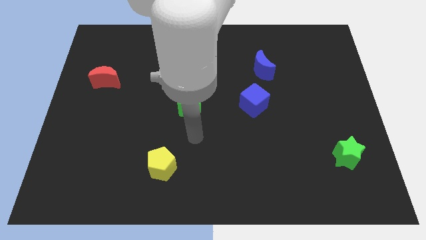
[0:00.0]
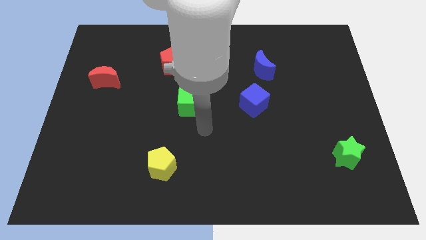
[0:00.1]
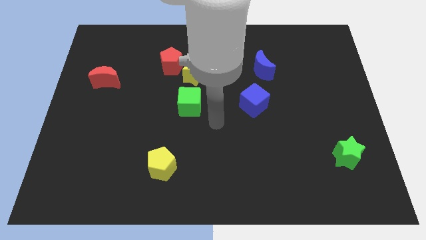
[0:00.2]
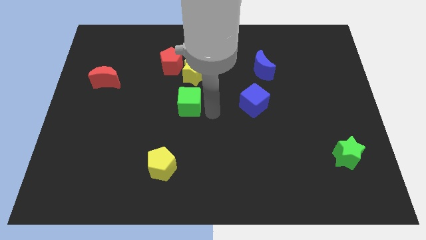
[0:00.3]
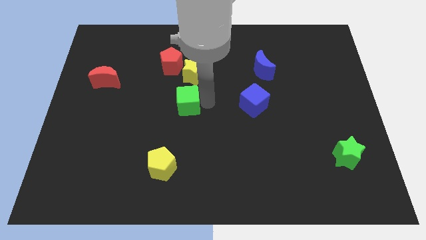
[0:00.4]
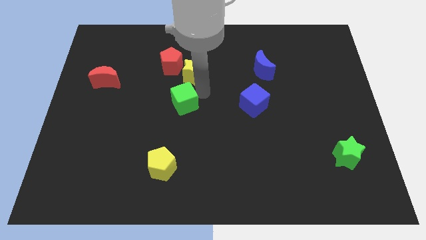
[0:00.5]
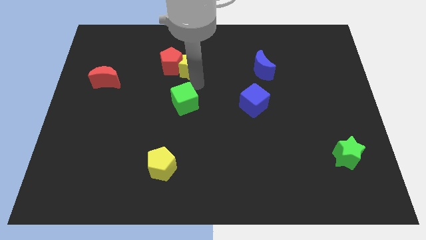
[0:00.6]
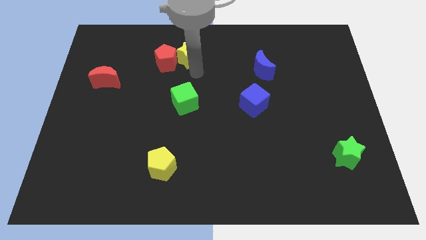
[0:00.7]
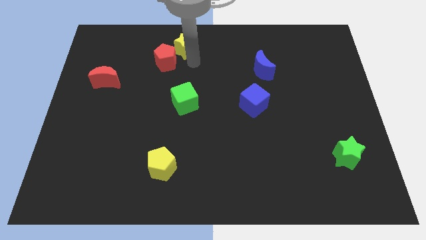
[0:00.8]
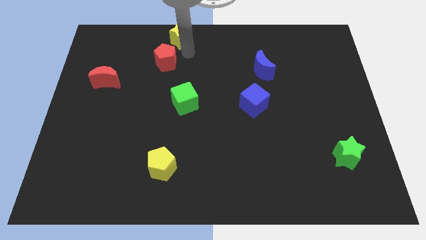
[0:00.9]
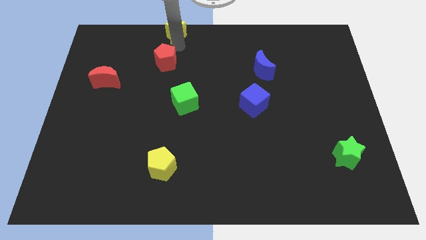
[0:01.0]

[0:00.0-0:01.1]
move the red pentagon away from the yellow star

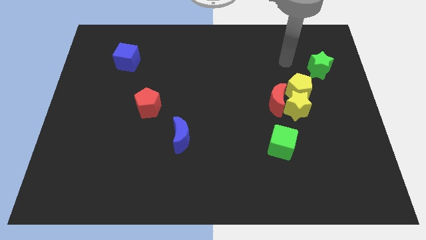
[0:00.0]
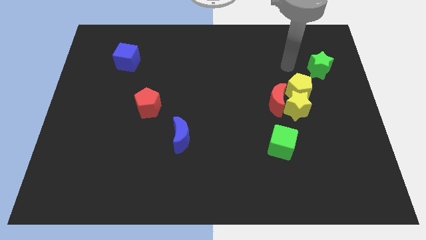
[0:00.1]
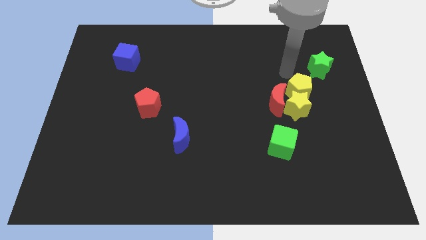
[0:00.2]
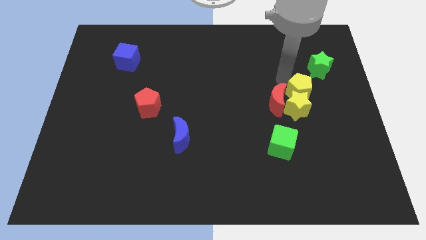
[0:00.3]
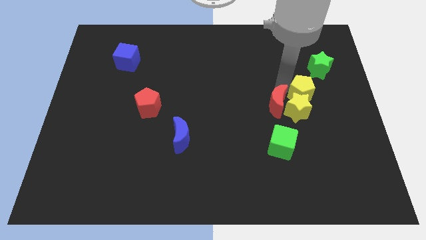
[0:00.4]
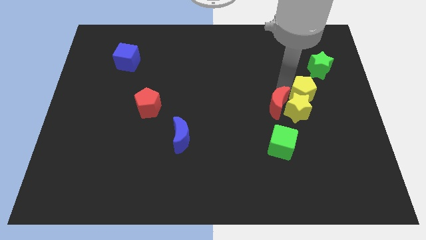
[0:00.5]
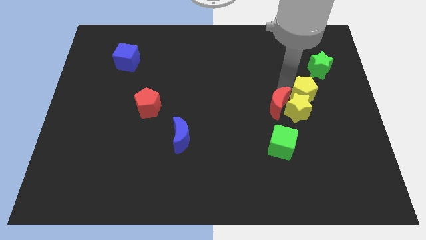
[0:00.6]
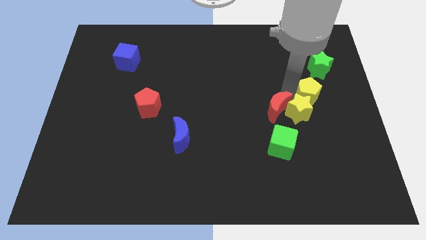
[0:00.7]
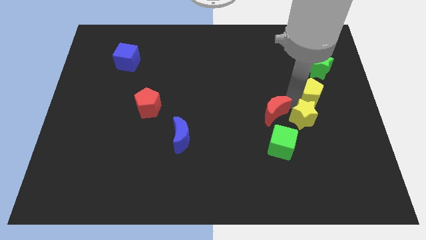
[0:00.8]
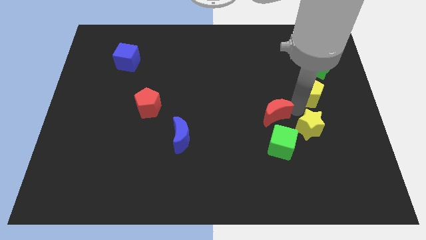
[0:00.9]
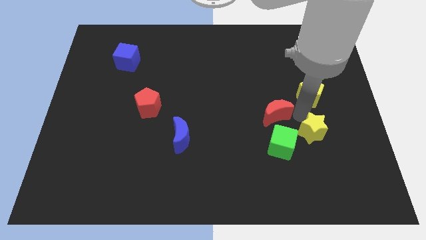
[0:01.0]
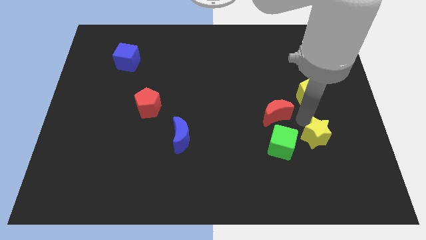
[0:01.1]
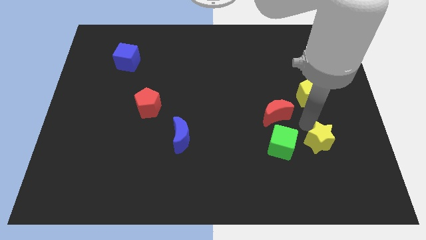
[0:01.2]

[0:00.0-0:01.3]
separate the yellow star from the red moon and yellow pentagon

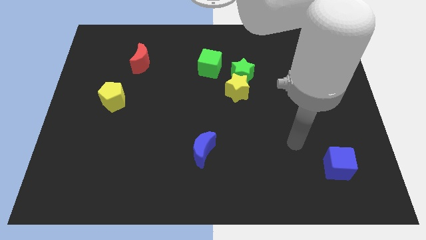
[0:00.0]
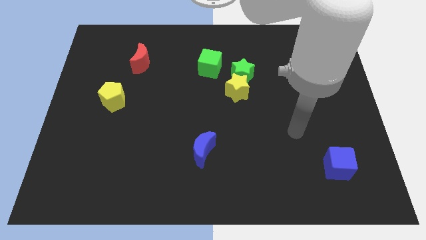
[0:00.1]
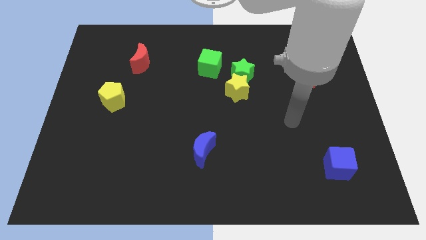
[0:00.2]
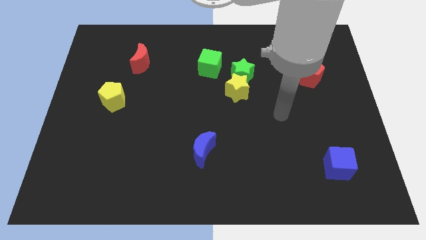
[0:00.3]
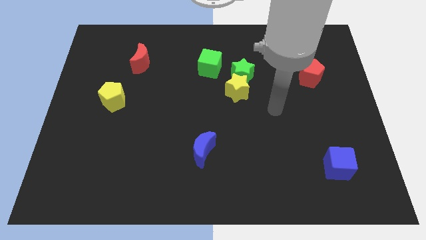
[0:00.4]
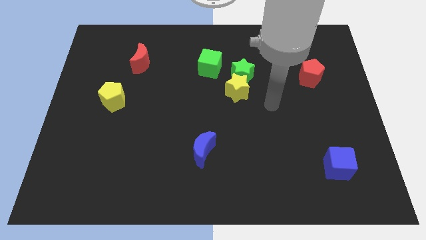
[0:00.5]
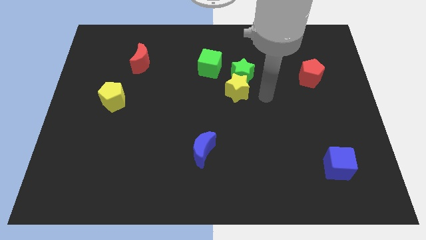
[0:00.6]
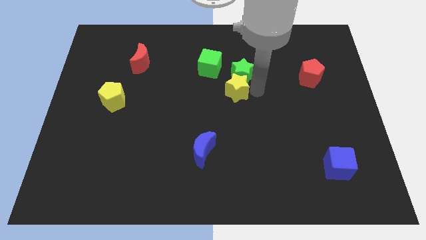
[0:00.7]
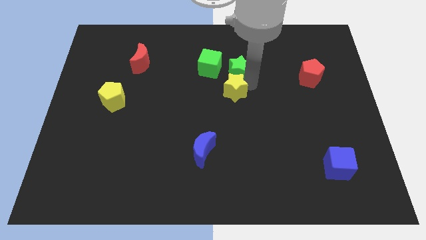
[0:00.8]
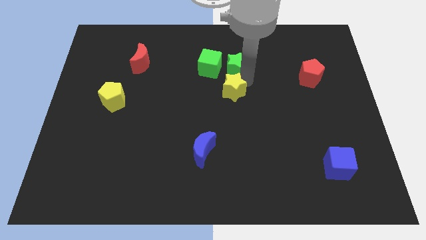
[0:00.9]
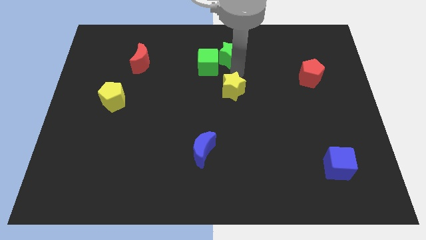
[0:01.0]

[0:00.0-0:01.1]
separate the yellow star from the green star

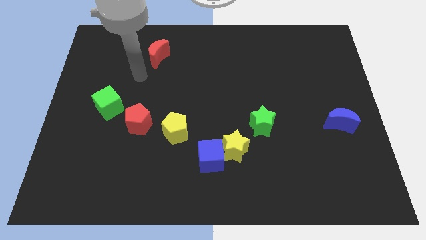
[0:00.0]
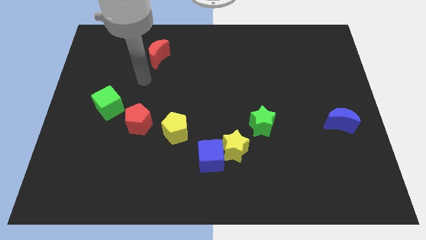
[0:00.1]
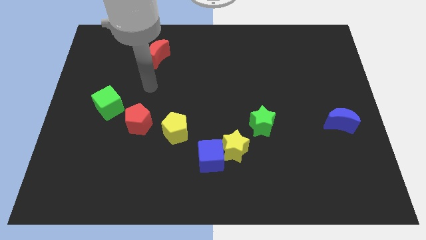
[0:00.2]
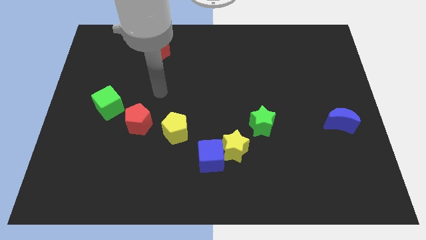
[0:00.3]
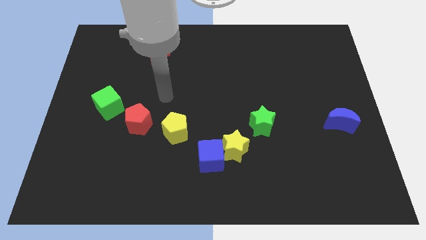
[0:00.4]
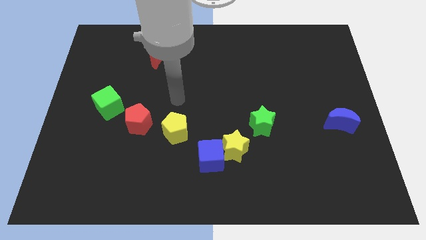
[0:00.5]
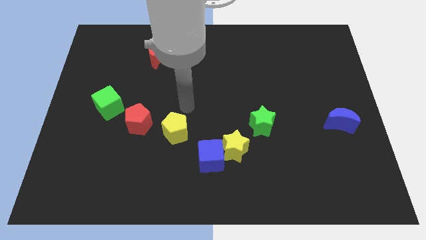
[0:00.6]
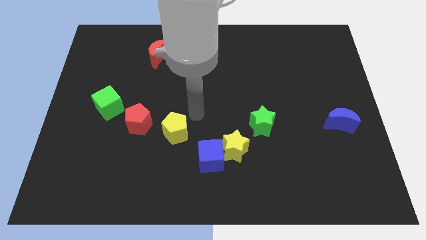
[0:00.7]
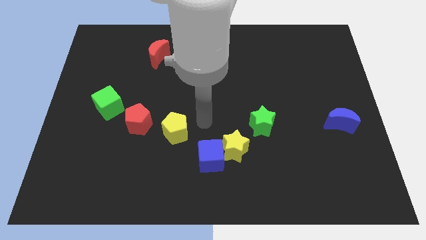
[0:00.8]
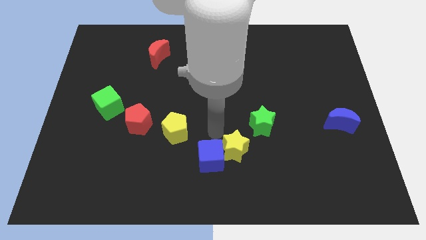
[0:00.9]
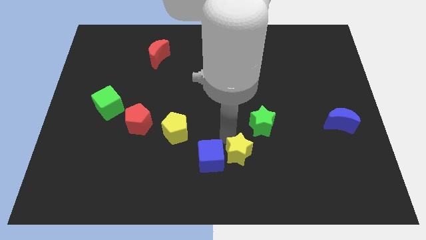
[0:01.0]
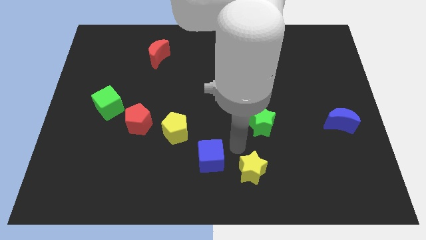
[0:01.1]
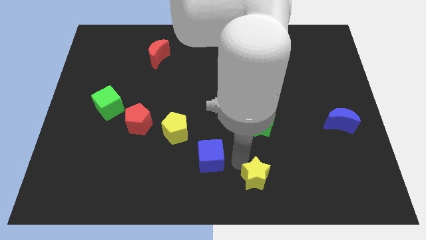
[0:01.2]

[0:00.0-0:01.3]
move the blue cube away from the yellow star

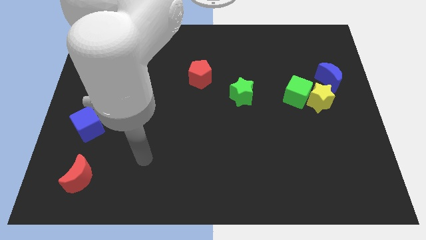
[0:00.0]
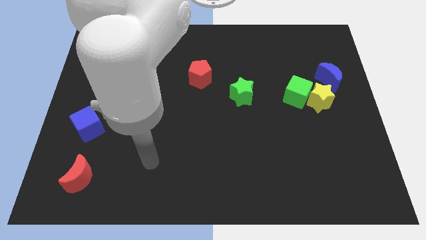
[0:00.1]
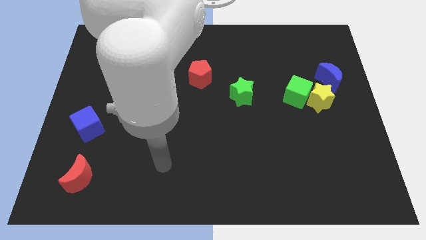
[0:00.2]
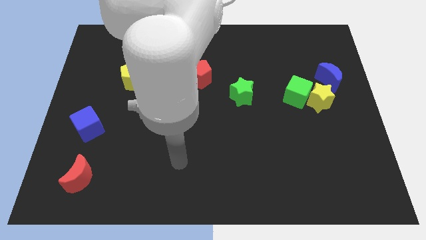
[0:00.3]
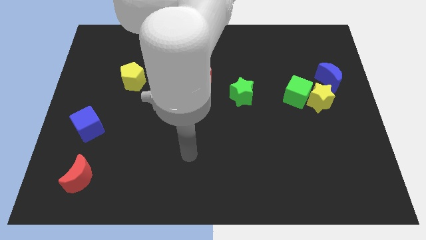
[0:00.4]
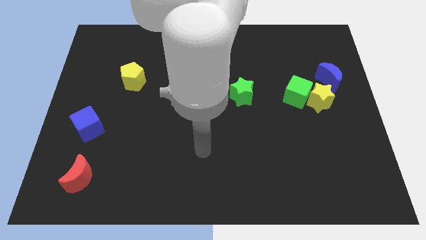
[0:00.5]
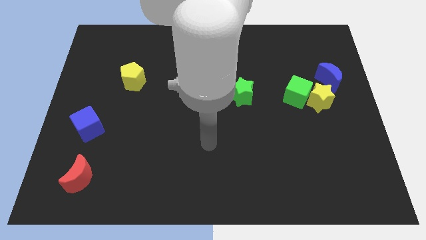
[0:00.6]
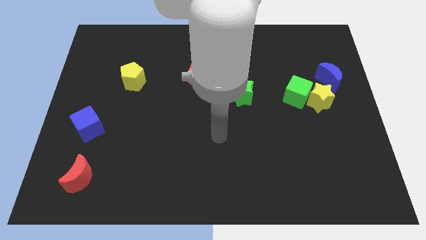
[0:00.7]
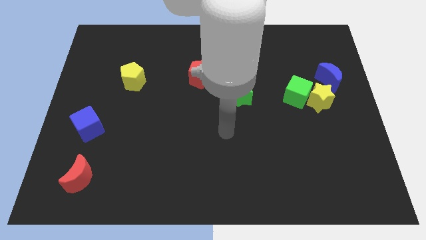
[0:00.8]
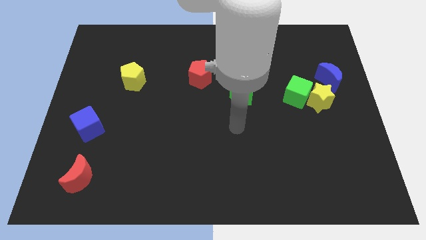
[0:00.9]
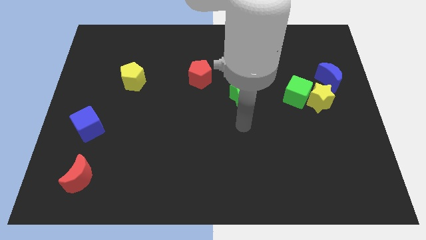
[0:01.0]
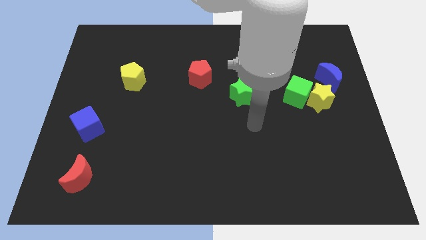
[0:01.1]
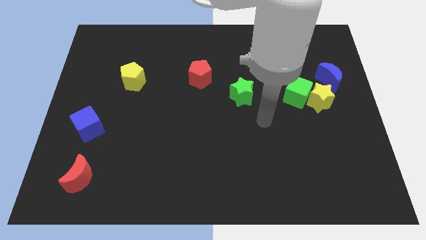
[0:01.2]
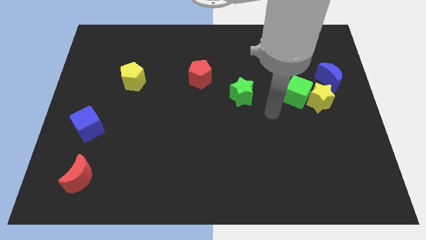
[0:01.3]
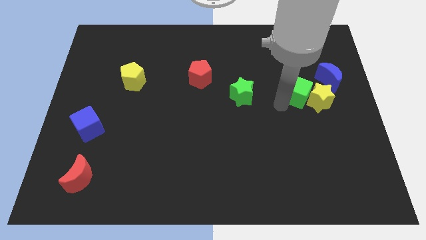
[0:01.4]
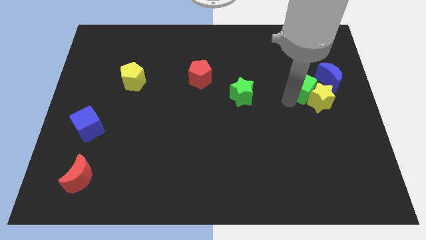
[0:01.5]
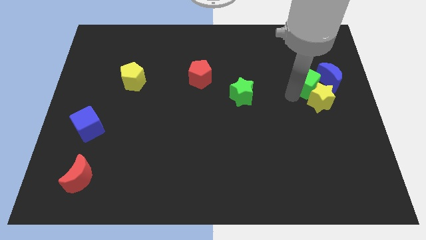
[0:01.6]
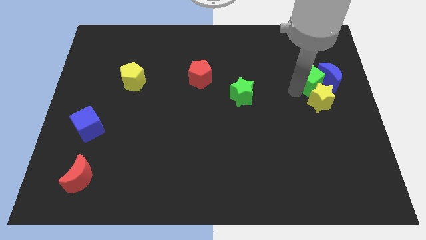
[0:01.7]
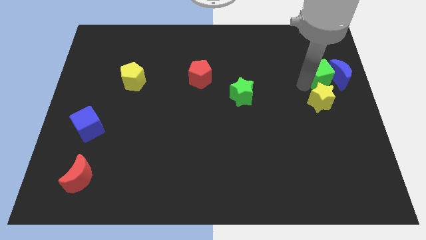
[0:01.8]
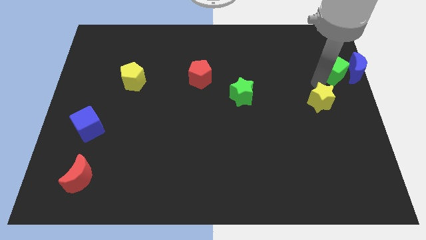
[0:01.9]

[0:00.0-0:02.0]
separate the yellow star from the green cube and blue moon

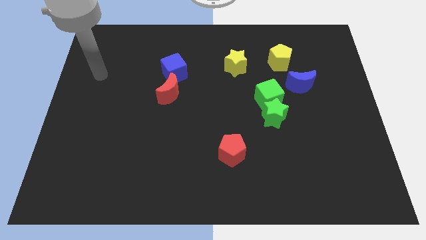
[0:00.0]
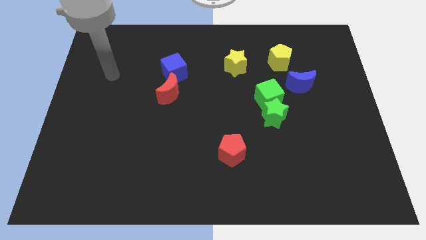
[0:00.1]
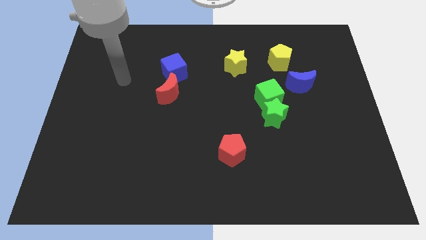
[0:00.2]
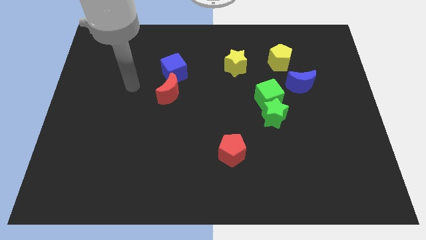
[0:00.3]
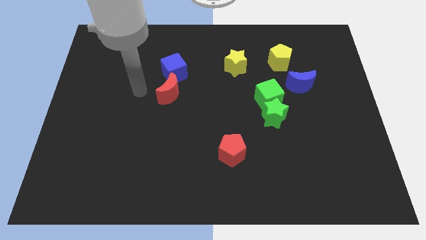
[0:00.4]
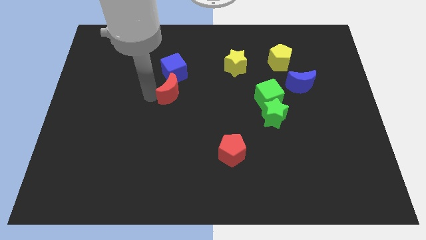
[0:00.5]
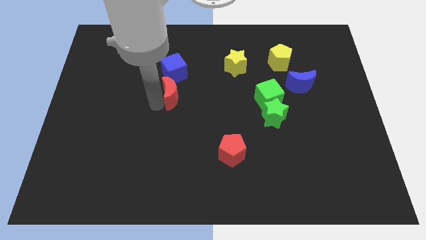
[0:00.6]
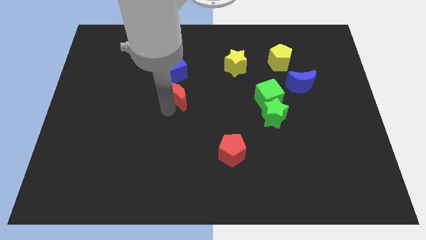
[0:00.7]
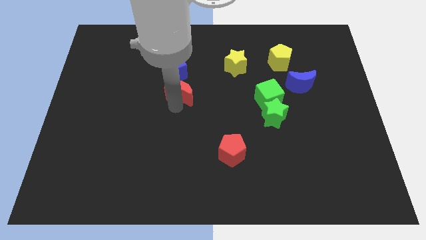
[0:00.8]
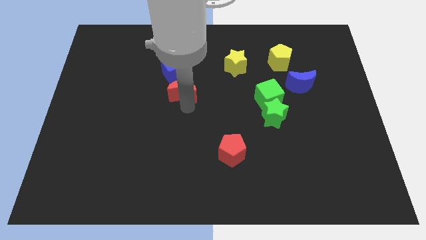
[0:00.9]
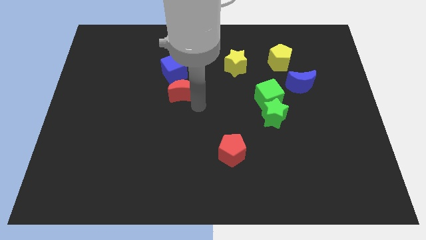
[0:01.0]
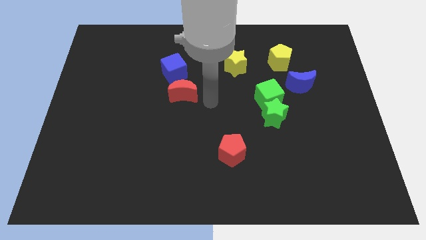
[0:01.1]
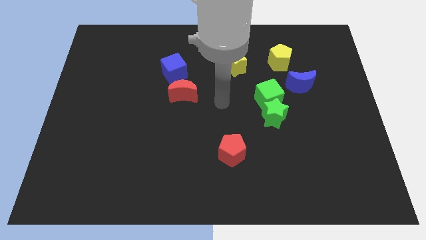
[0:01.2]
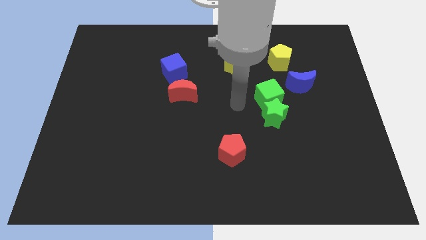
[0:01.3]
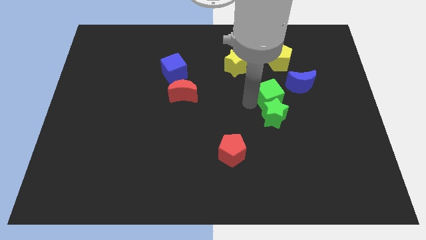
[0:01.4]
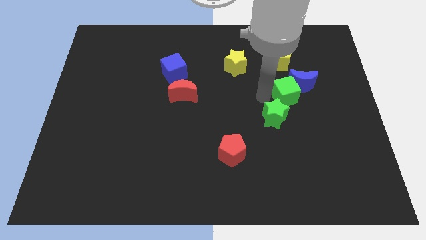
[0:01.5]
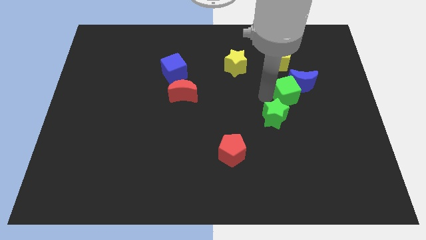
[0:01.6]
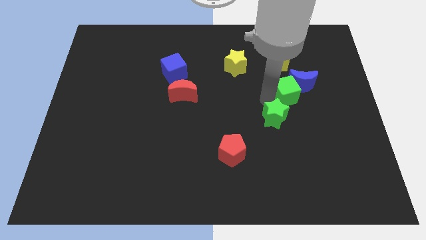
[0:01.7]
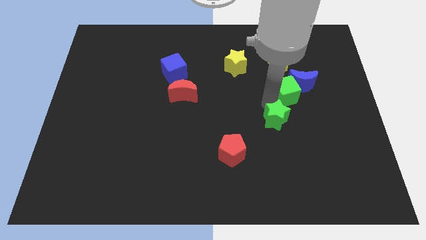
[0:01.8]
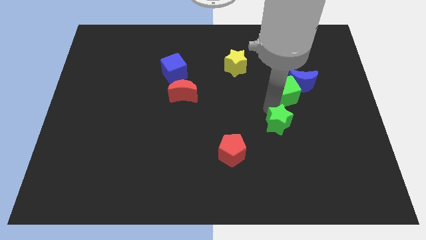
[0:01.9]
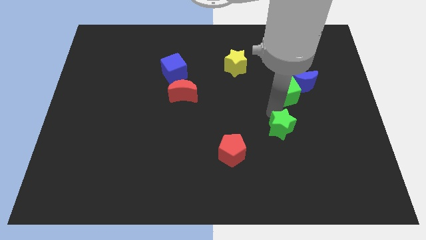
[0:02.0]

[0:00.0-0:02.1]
move the green star away from the green cube

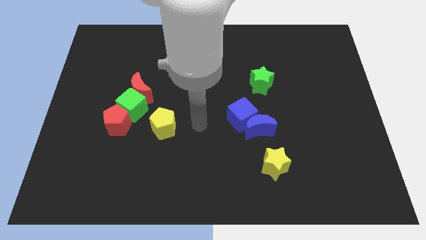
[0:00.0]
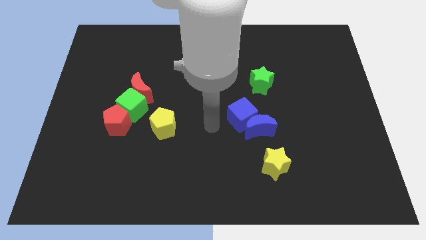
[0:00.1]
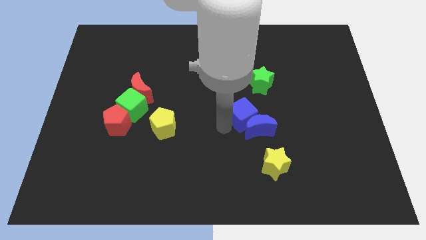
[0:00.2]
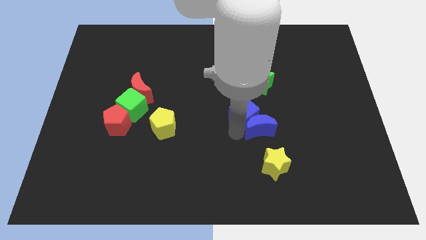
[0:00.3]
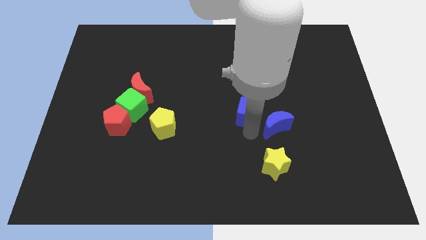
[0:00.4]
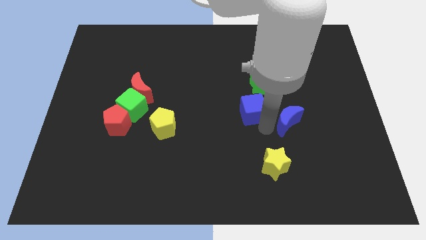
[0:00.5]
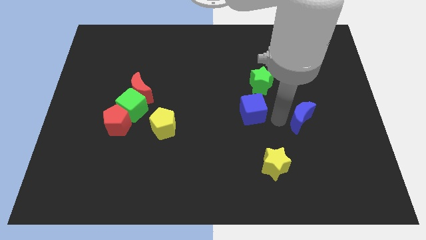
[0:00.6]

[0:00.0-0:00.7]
move the blue cube away from the blue moon
